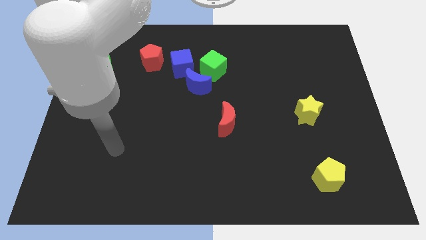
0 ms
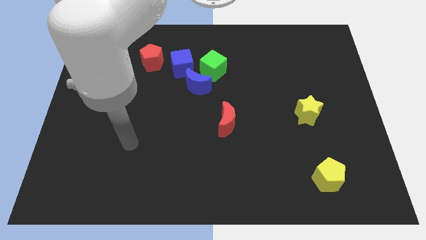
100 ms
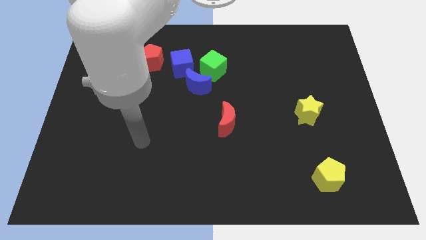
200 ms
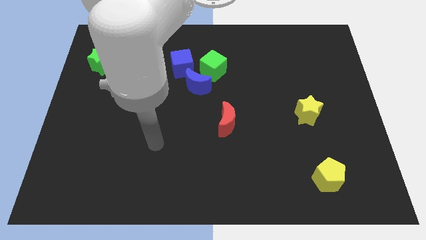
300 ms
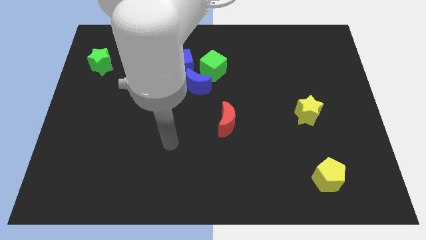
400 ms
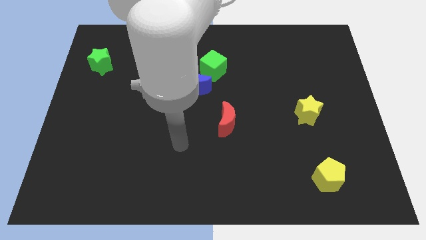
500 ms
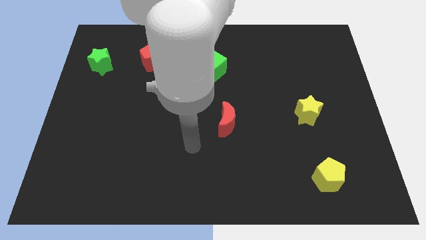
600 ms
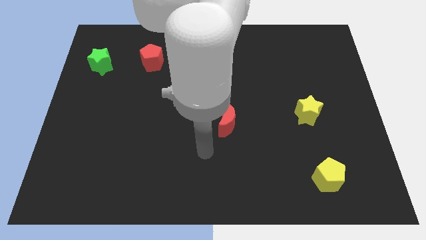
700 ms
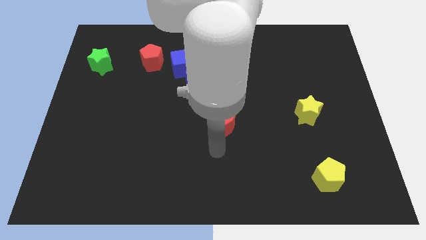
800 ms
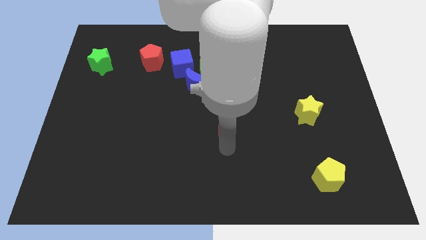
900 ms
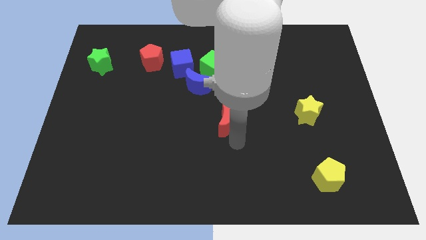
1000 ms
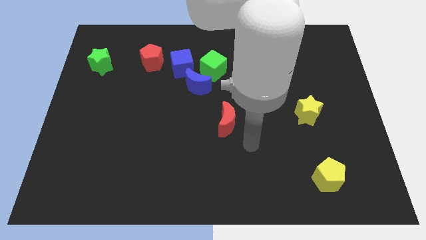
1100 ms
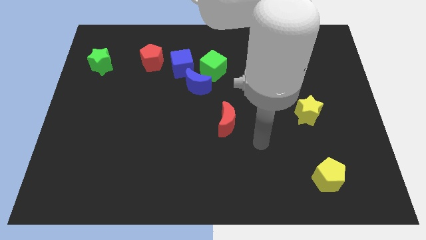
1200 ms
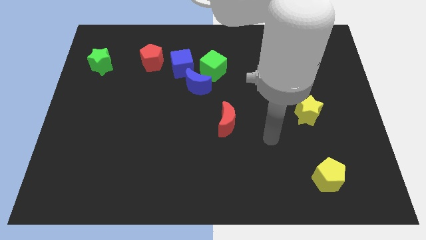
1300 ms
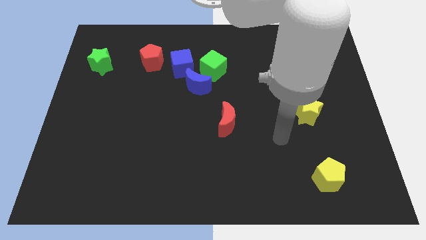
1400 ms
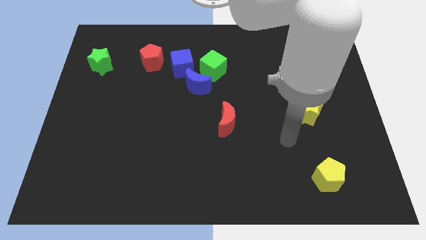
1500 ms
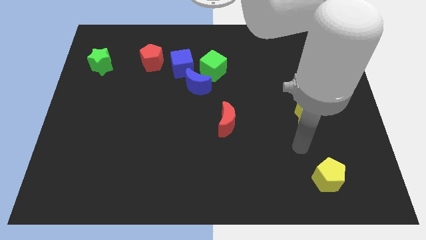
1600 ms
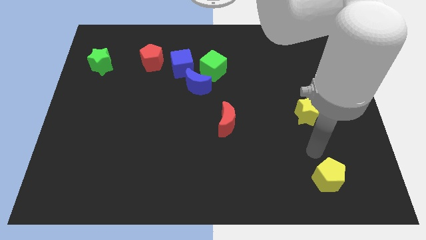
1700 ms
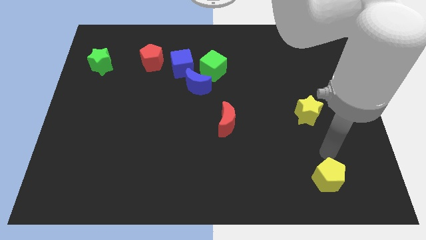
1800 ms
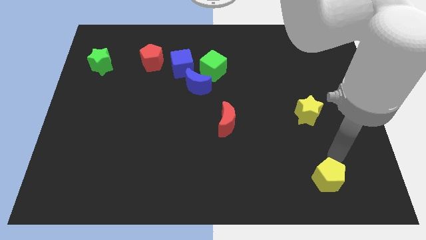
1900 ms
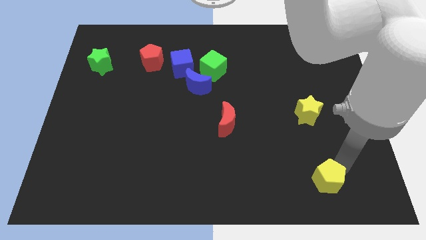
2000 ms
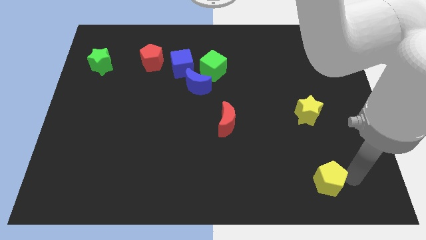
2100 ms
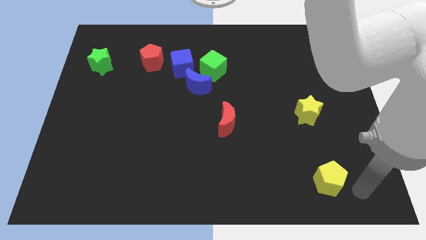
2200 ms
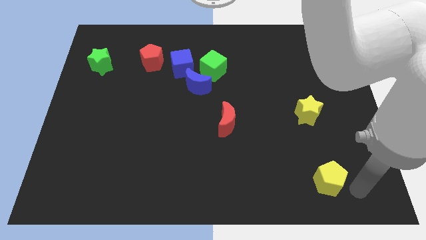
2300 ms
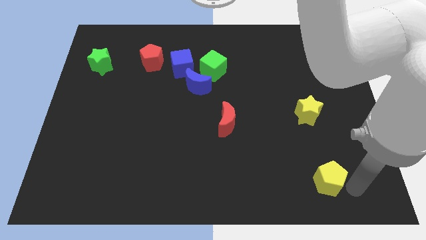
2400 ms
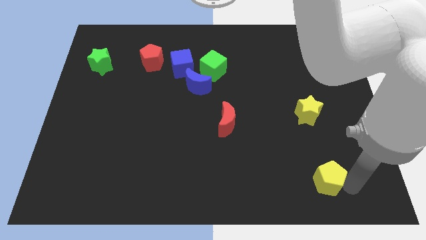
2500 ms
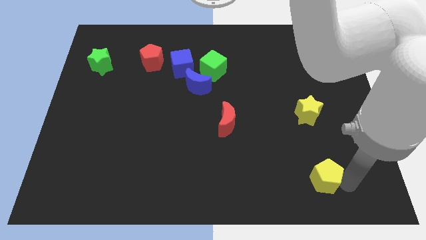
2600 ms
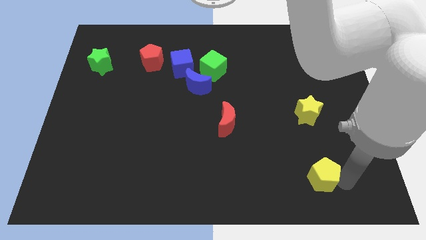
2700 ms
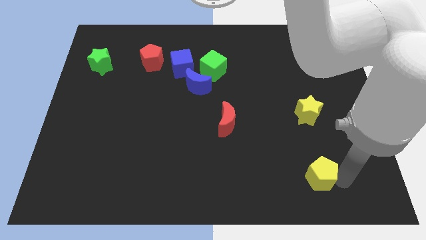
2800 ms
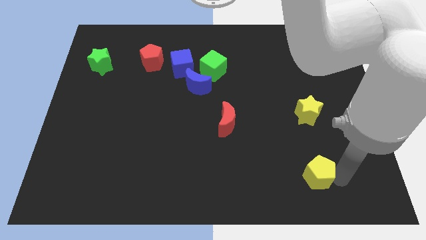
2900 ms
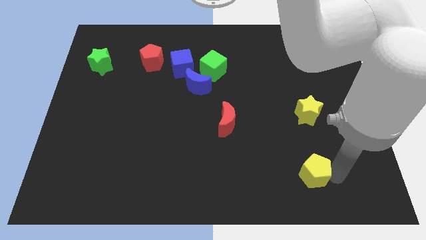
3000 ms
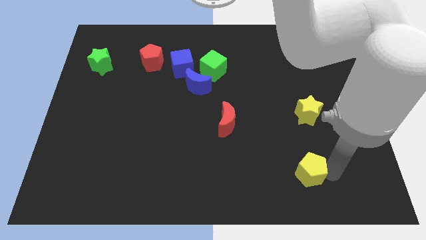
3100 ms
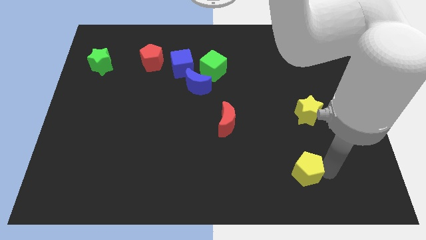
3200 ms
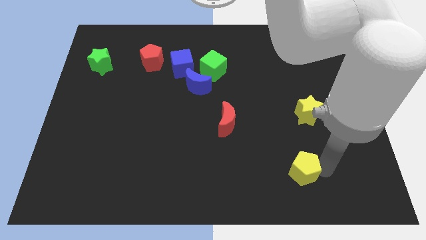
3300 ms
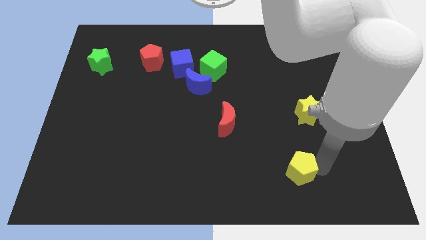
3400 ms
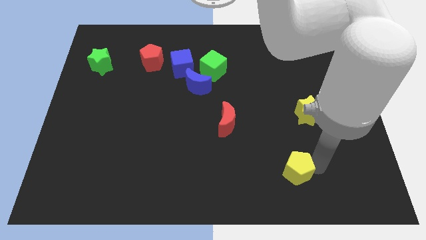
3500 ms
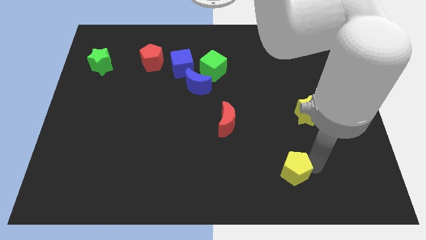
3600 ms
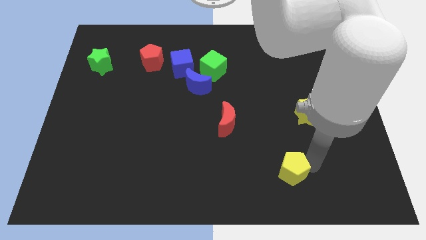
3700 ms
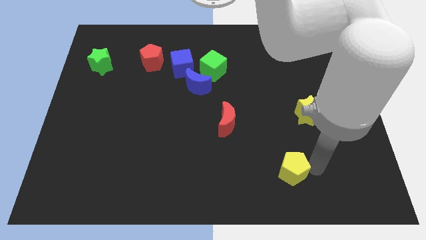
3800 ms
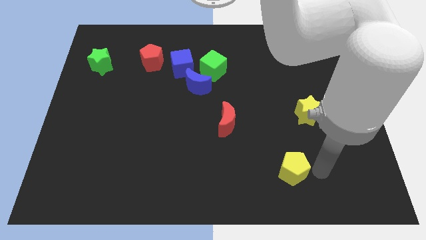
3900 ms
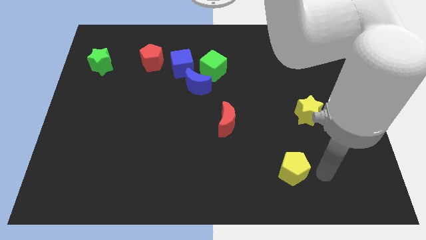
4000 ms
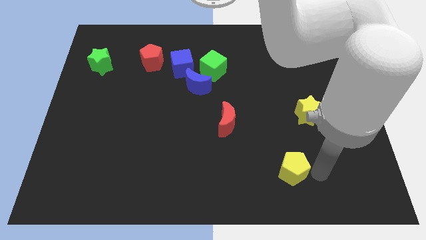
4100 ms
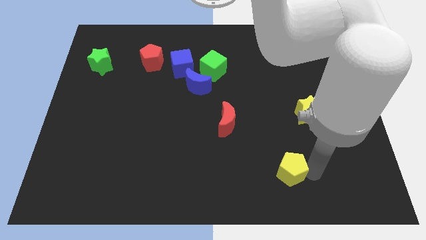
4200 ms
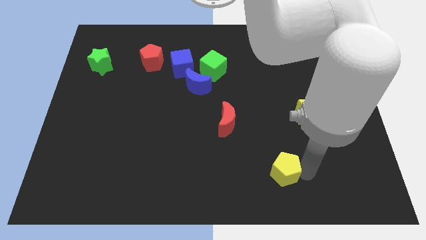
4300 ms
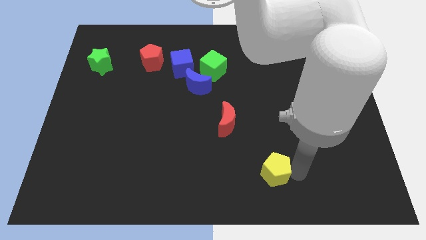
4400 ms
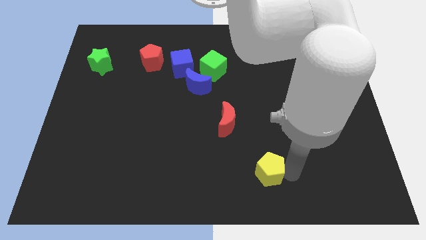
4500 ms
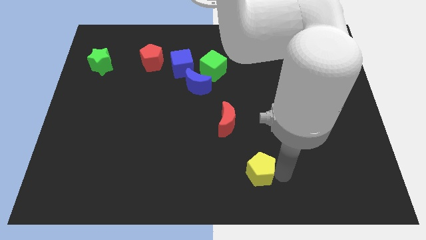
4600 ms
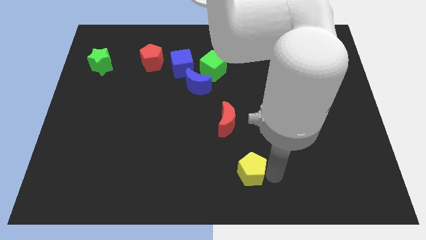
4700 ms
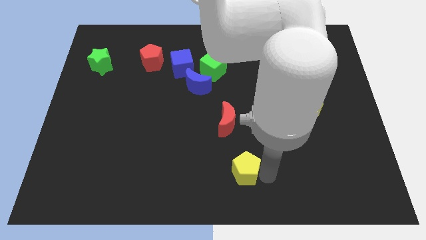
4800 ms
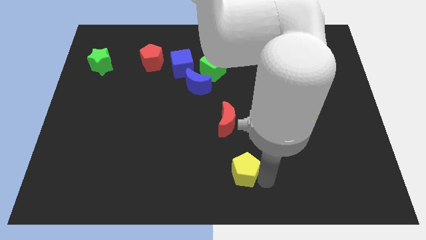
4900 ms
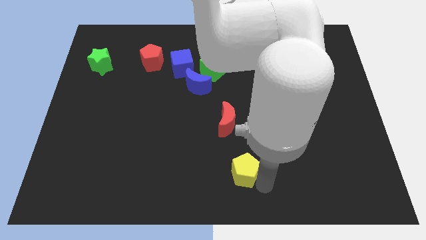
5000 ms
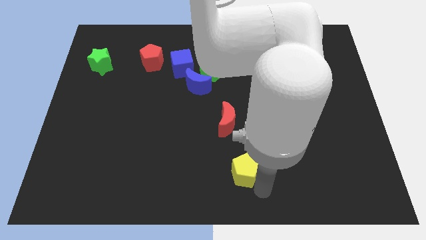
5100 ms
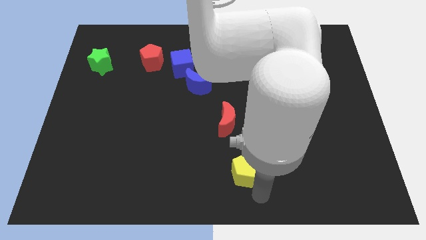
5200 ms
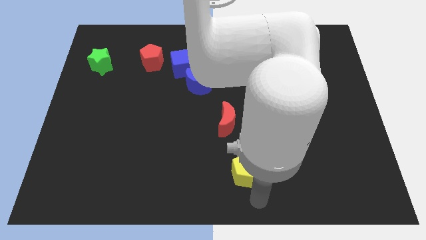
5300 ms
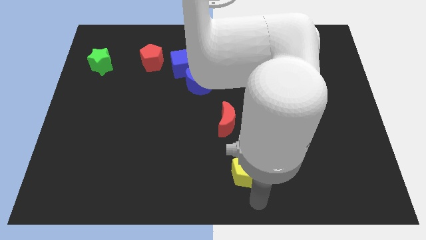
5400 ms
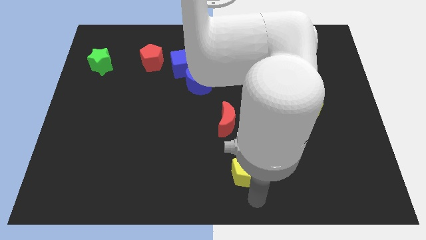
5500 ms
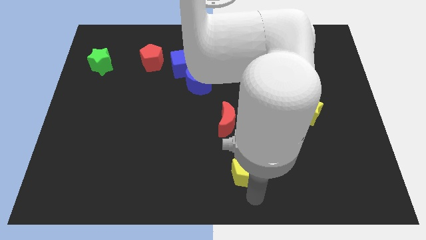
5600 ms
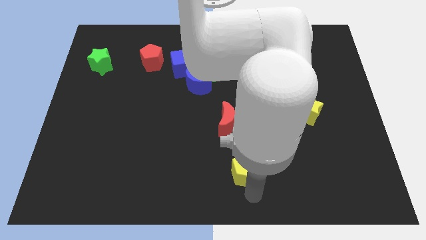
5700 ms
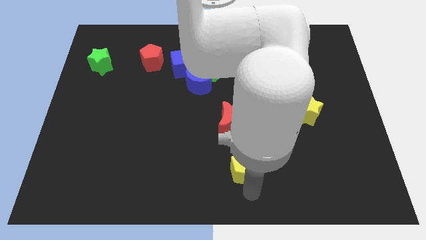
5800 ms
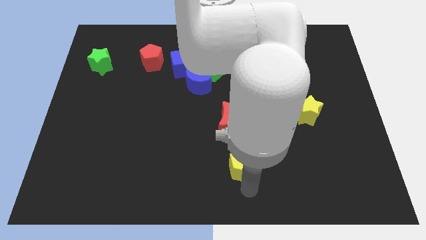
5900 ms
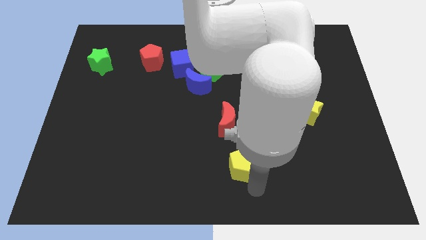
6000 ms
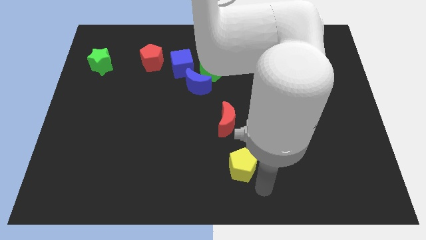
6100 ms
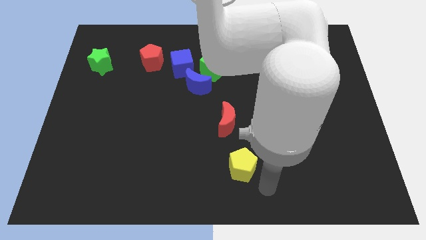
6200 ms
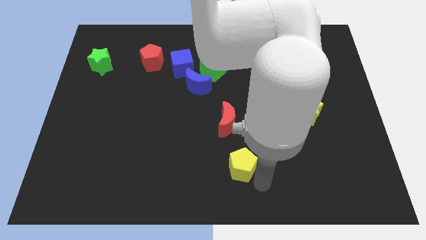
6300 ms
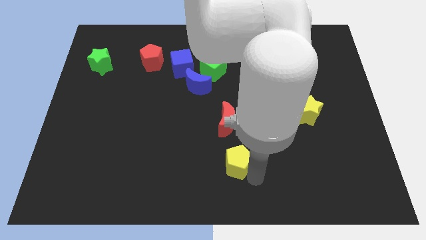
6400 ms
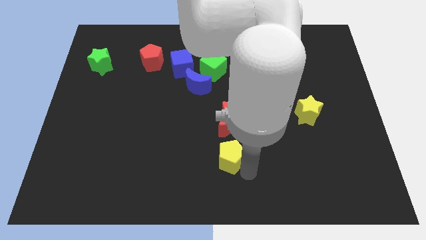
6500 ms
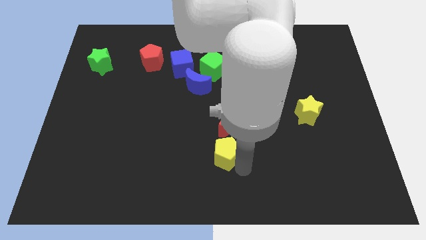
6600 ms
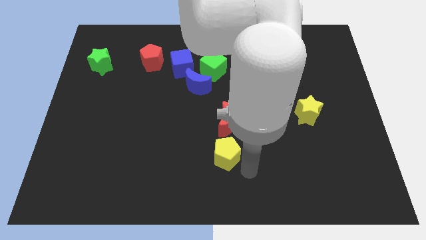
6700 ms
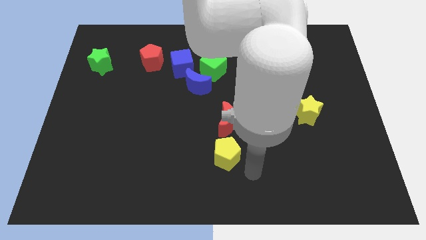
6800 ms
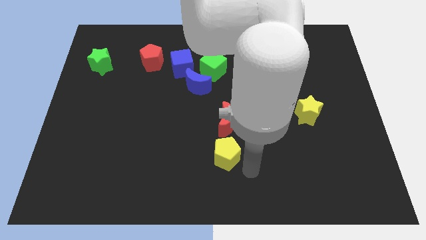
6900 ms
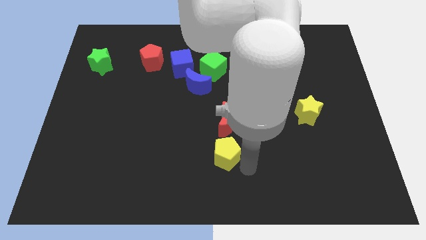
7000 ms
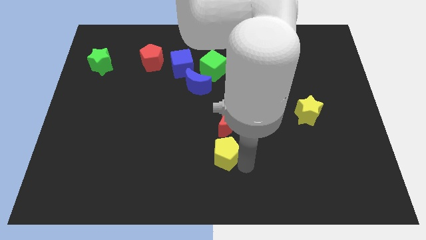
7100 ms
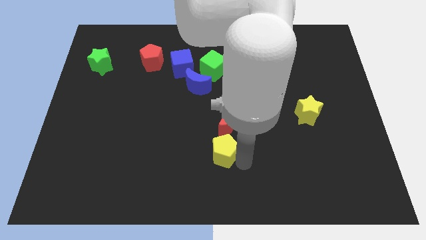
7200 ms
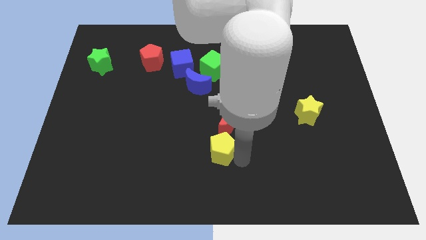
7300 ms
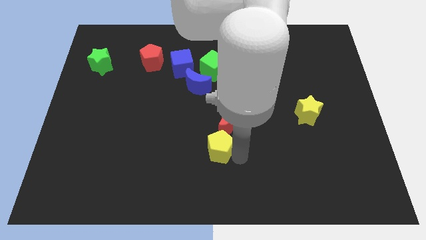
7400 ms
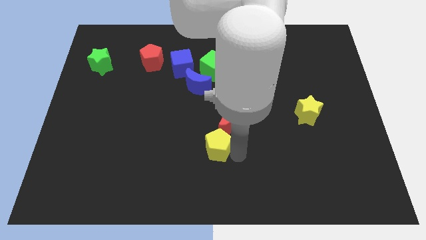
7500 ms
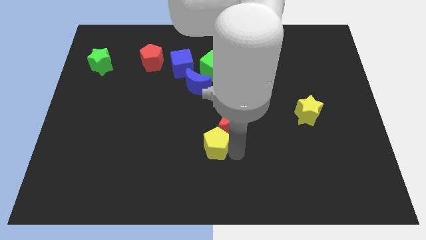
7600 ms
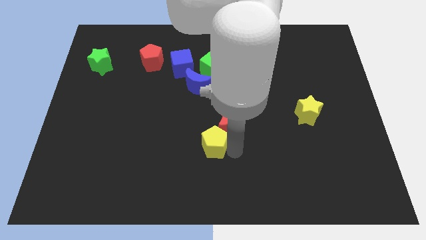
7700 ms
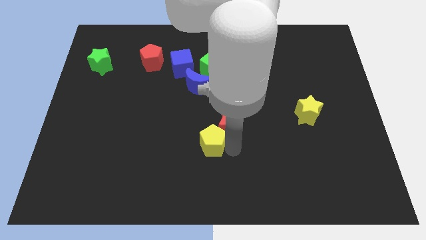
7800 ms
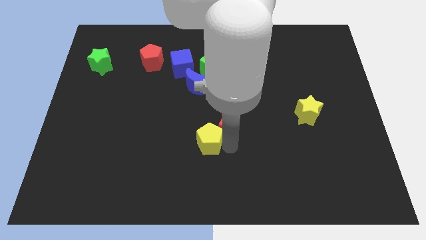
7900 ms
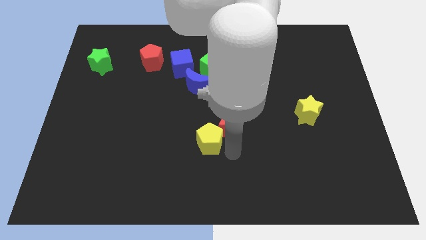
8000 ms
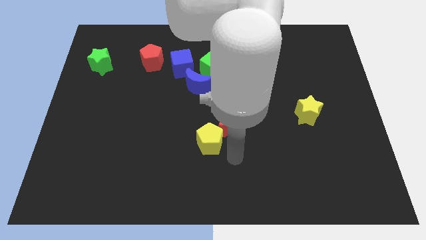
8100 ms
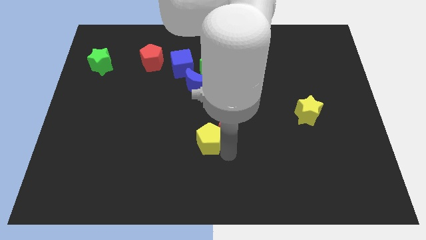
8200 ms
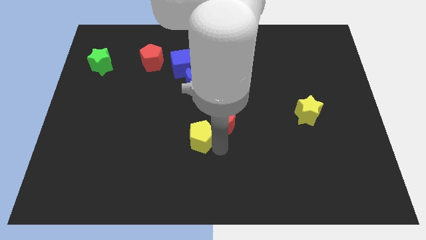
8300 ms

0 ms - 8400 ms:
slide the yellow pentagon left of the red moon
